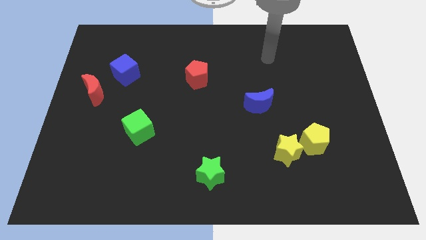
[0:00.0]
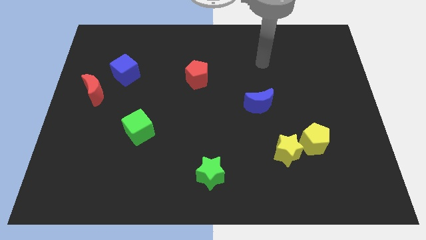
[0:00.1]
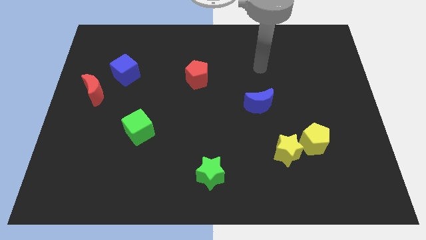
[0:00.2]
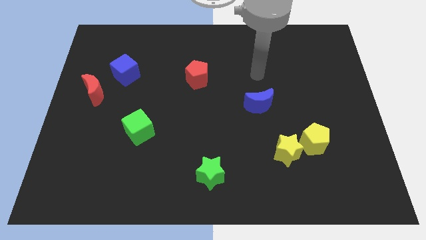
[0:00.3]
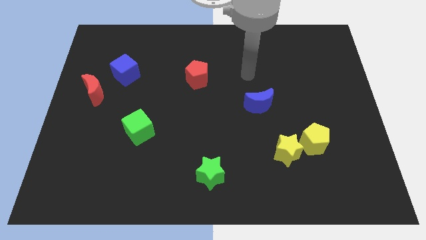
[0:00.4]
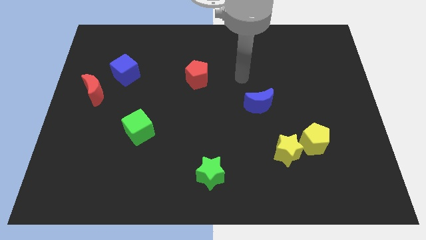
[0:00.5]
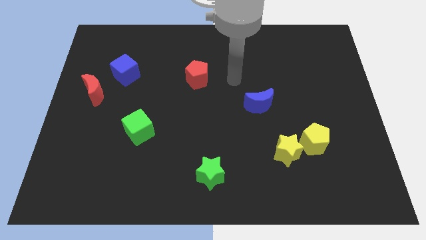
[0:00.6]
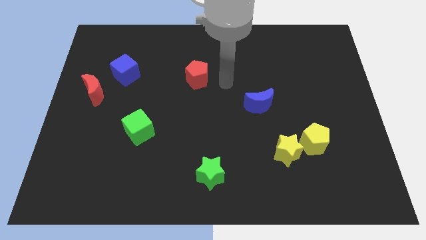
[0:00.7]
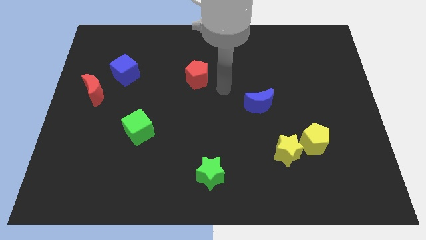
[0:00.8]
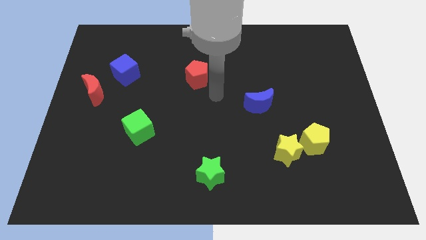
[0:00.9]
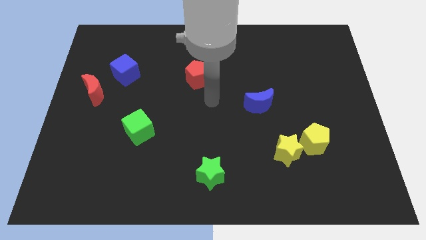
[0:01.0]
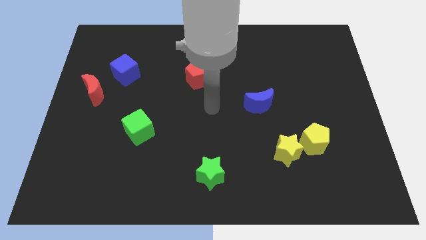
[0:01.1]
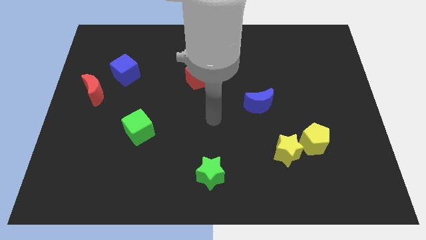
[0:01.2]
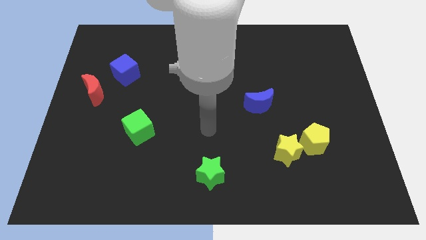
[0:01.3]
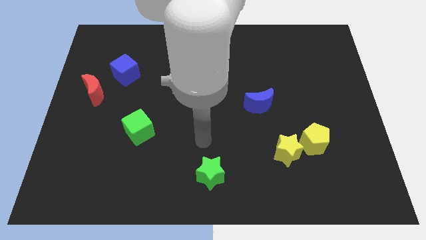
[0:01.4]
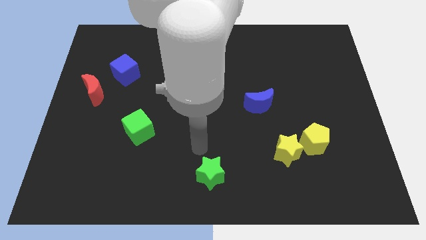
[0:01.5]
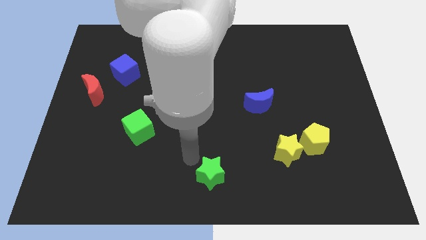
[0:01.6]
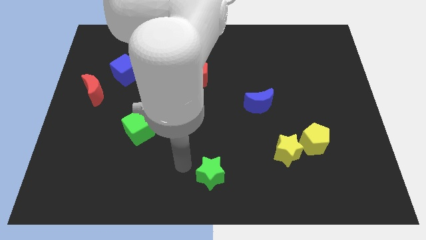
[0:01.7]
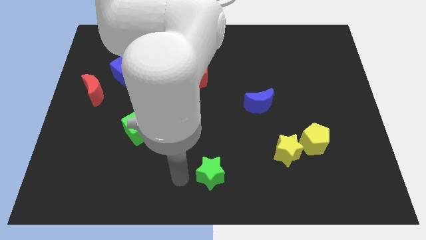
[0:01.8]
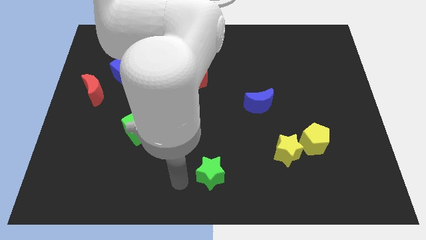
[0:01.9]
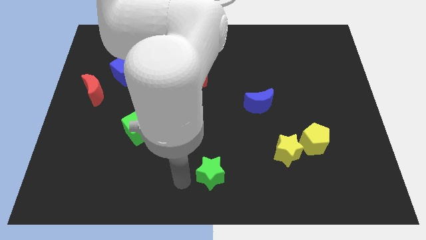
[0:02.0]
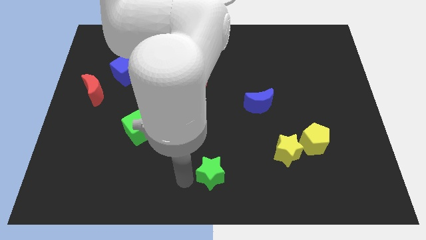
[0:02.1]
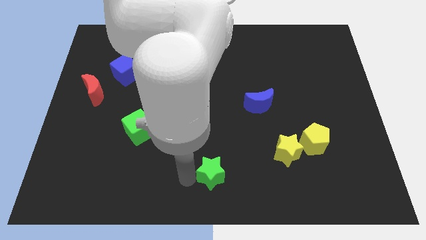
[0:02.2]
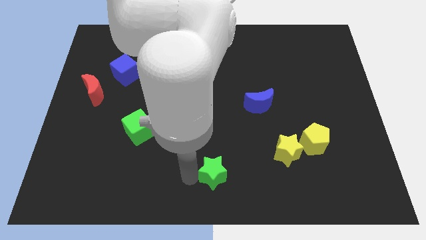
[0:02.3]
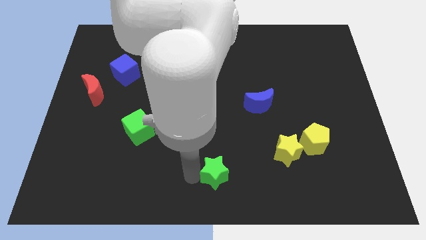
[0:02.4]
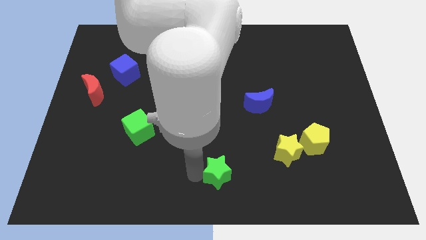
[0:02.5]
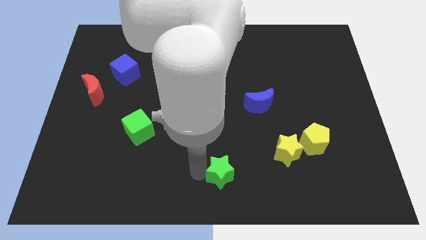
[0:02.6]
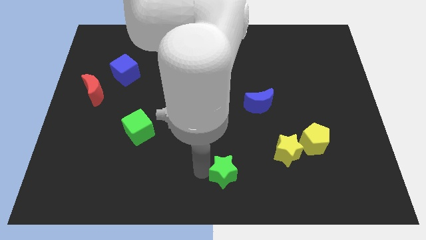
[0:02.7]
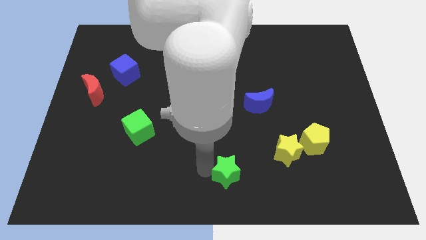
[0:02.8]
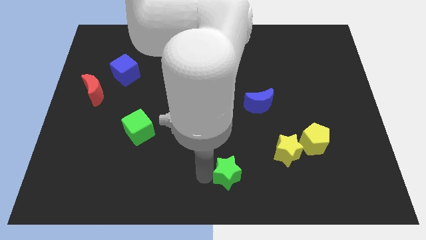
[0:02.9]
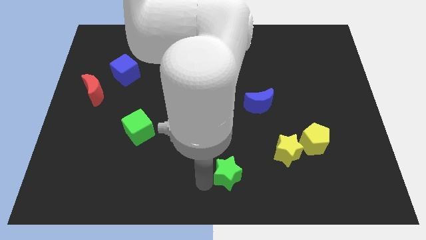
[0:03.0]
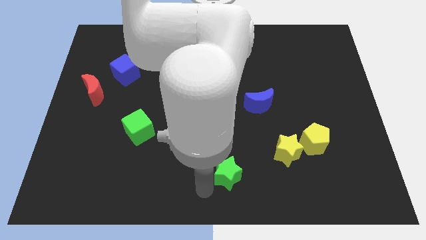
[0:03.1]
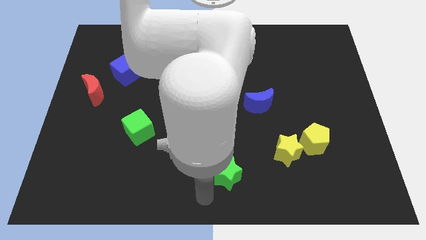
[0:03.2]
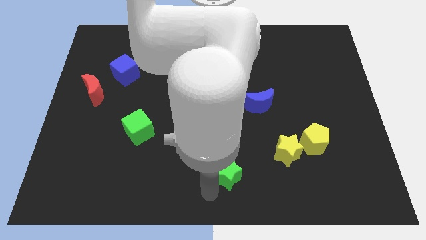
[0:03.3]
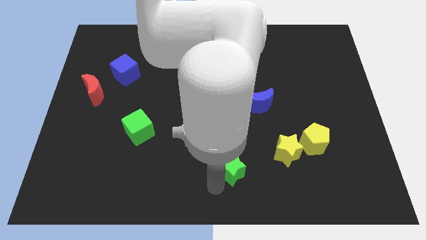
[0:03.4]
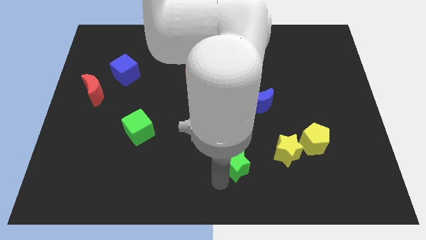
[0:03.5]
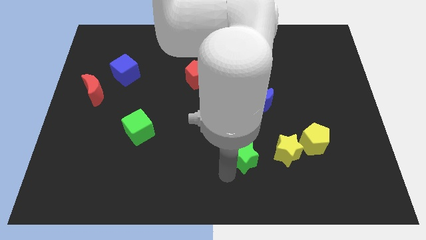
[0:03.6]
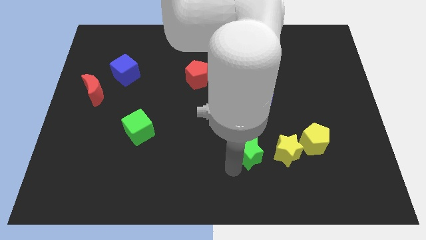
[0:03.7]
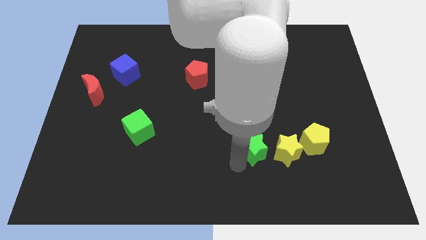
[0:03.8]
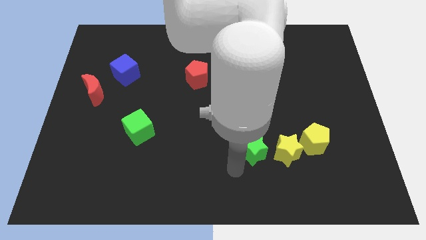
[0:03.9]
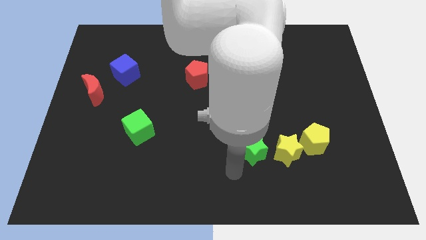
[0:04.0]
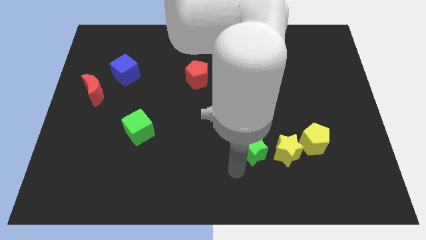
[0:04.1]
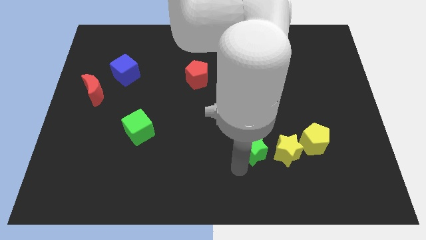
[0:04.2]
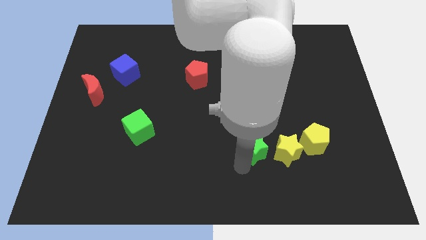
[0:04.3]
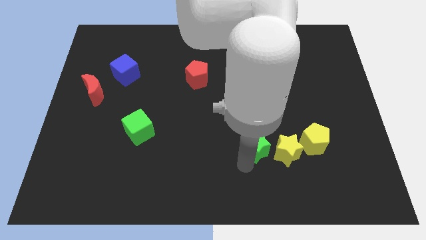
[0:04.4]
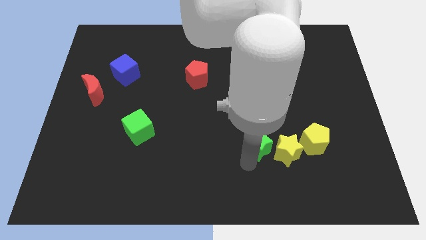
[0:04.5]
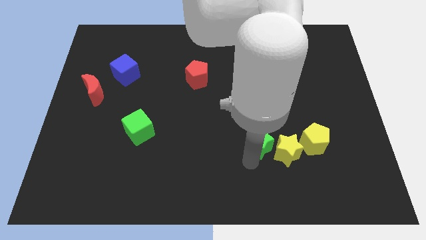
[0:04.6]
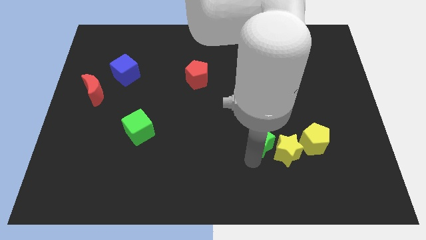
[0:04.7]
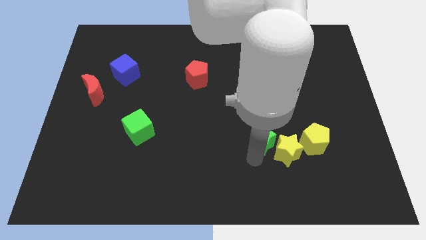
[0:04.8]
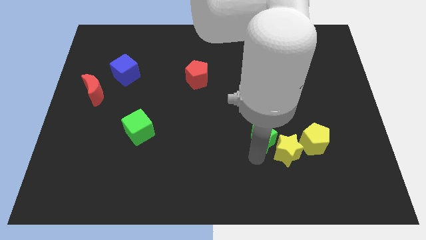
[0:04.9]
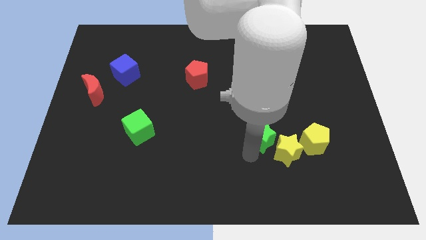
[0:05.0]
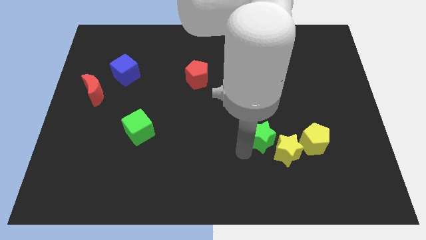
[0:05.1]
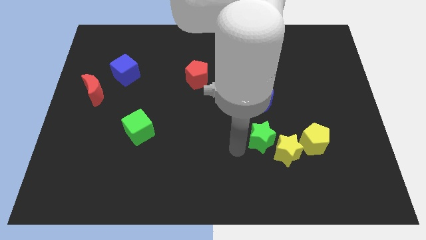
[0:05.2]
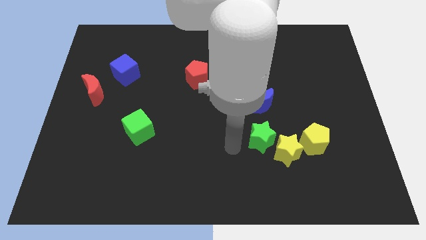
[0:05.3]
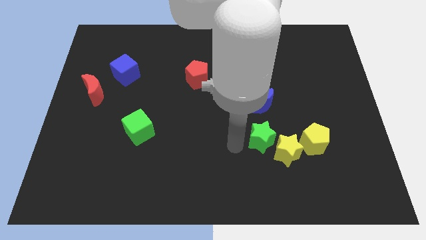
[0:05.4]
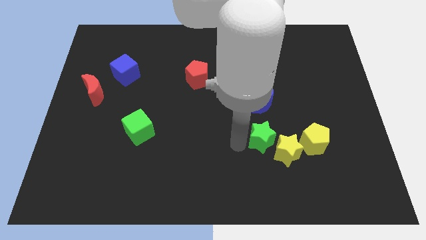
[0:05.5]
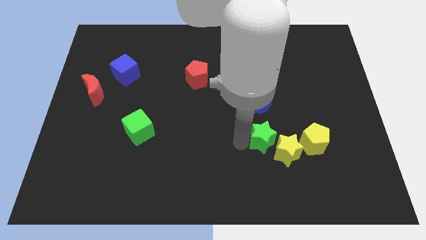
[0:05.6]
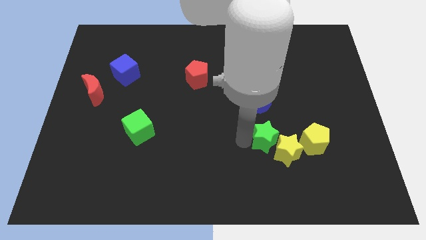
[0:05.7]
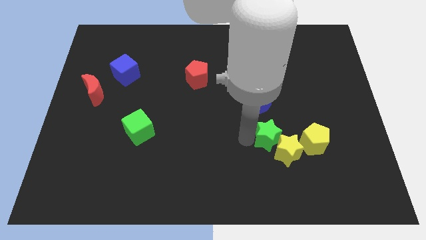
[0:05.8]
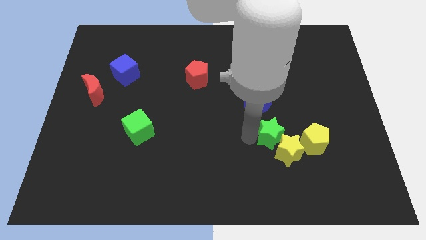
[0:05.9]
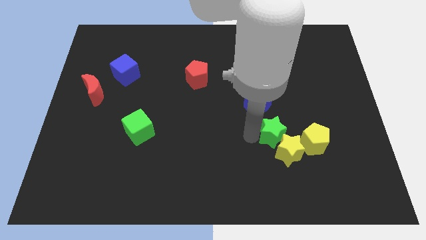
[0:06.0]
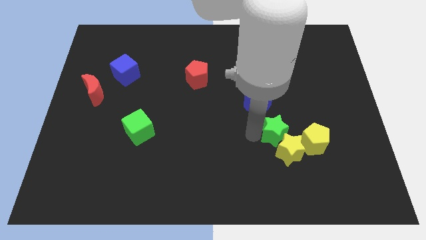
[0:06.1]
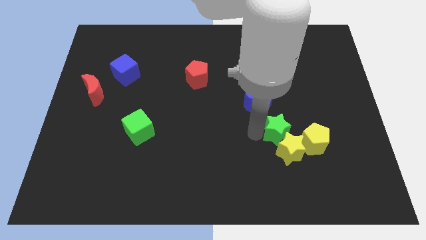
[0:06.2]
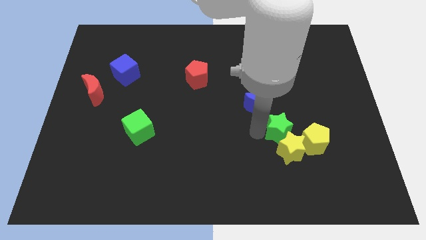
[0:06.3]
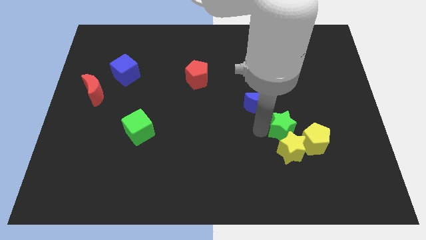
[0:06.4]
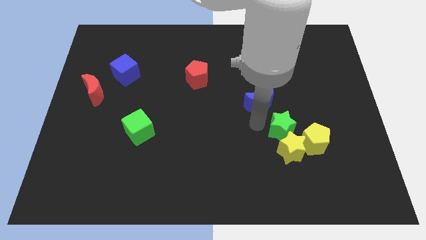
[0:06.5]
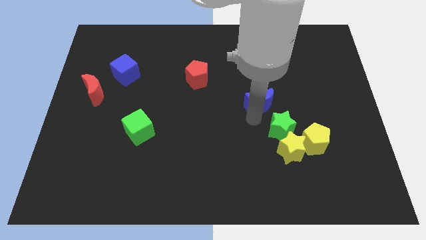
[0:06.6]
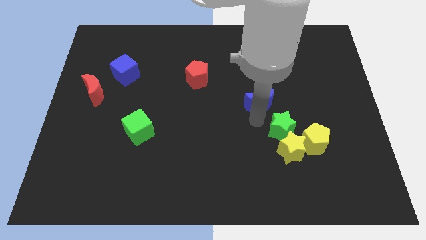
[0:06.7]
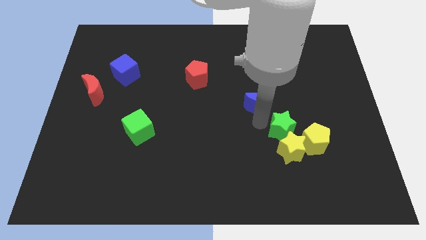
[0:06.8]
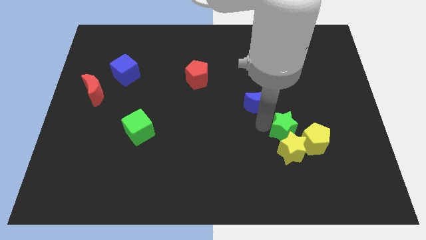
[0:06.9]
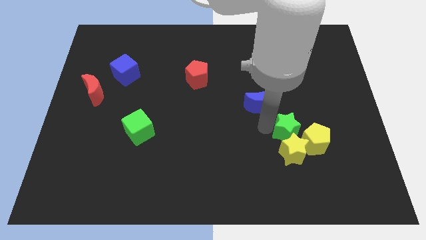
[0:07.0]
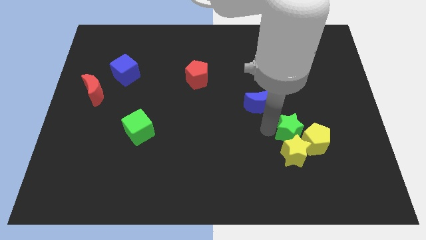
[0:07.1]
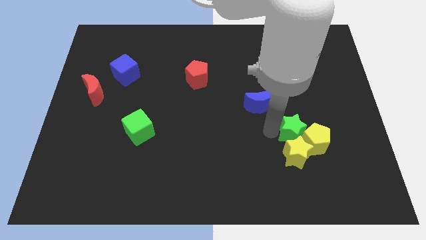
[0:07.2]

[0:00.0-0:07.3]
slide the green star close to the yellow pentagon

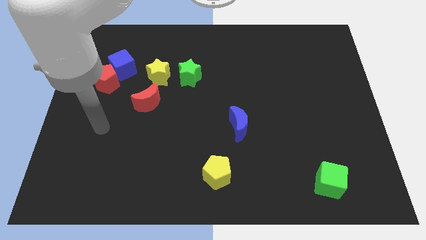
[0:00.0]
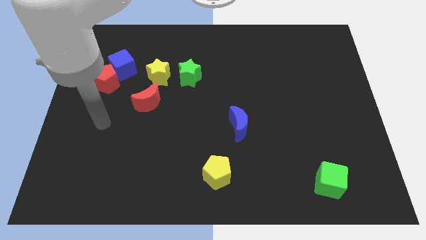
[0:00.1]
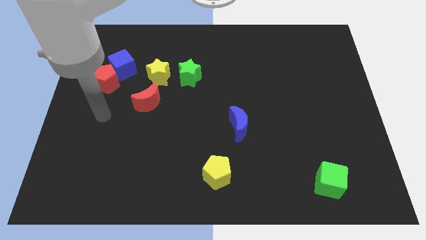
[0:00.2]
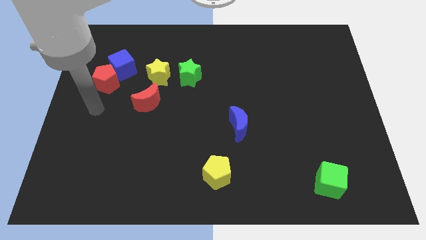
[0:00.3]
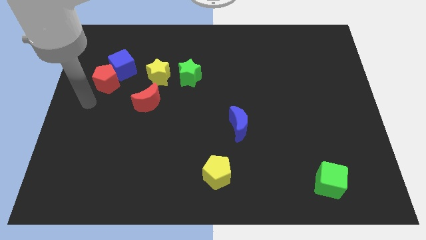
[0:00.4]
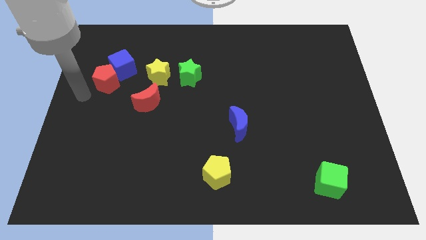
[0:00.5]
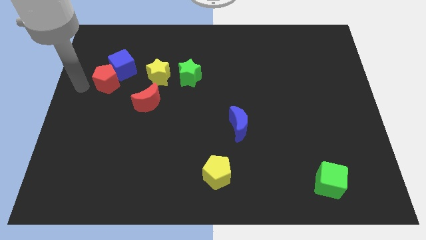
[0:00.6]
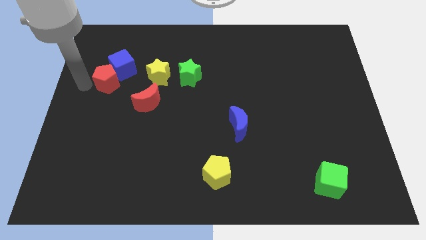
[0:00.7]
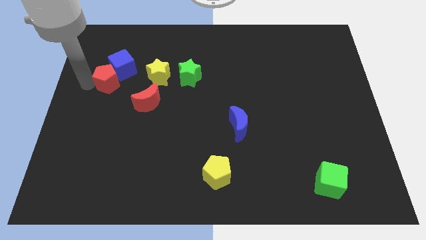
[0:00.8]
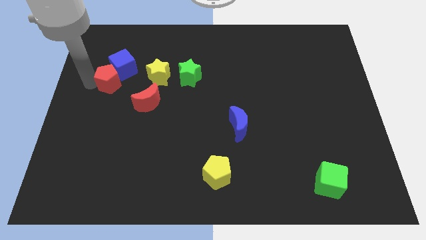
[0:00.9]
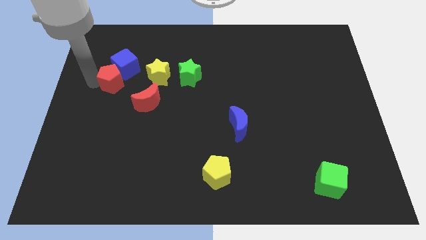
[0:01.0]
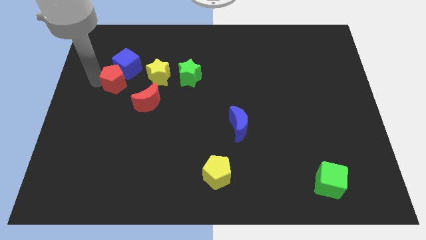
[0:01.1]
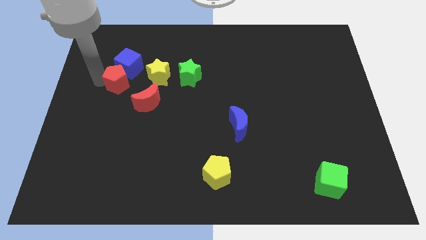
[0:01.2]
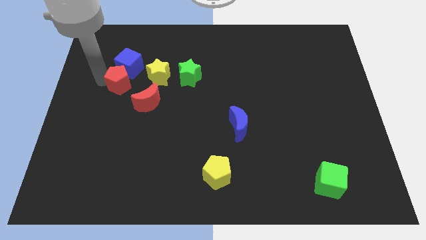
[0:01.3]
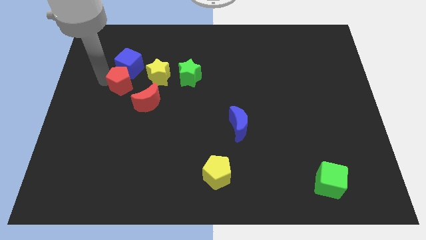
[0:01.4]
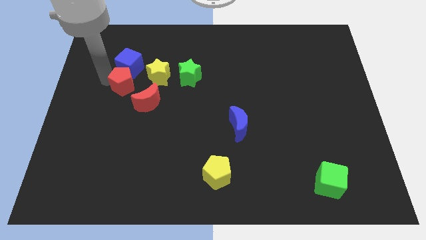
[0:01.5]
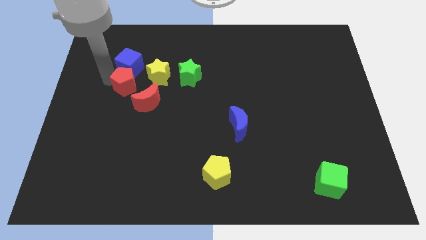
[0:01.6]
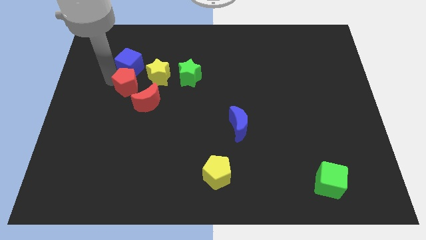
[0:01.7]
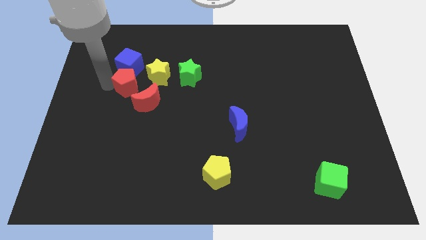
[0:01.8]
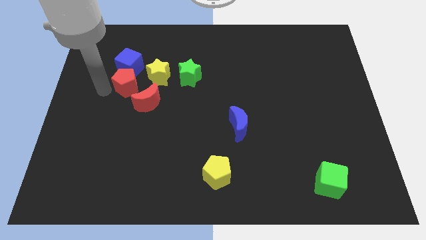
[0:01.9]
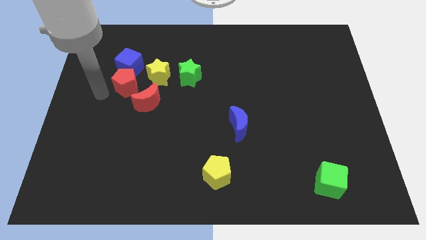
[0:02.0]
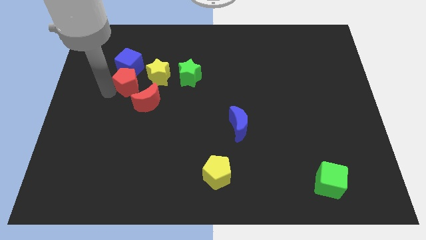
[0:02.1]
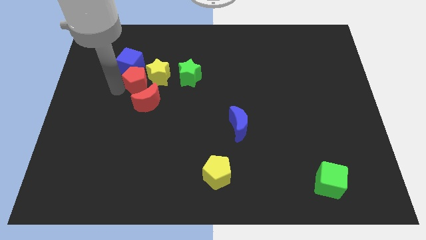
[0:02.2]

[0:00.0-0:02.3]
put the red pentagon close to the yellow star
